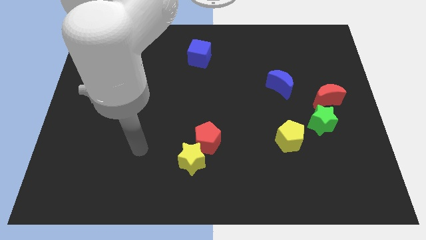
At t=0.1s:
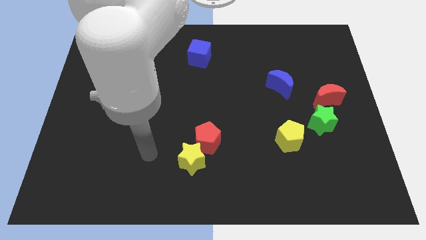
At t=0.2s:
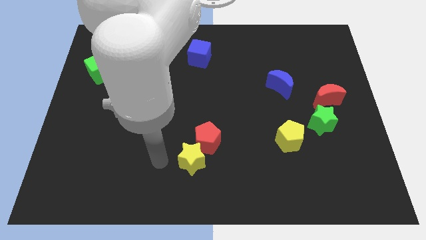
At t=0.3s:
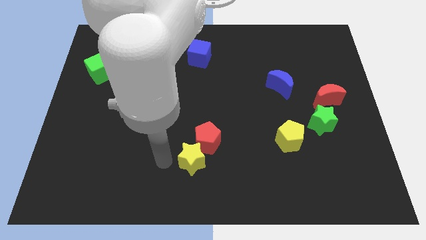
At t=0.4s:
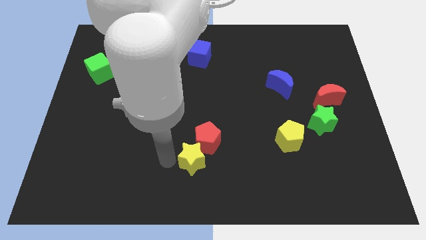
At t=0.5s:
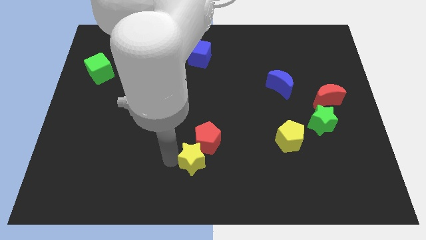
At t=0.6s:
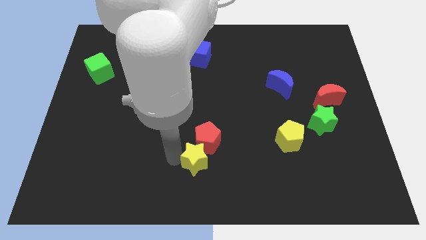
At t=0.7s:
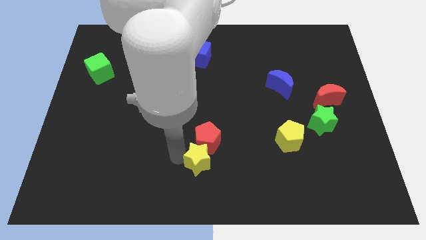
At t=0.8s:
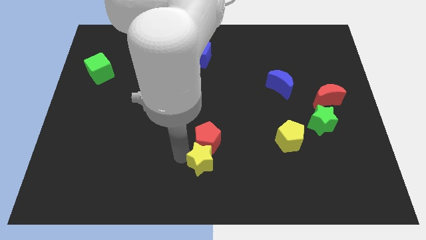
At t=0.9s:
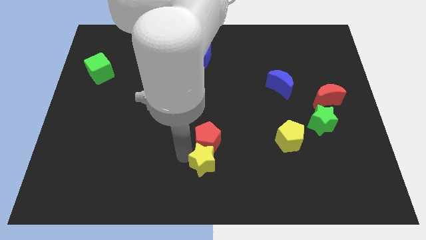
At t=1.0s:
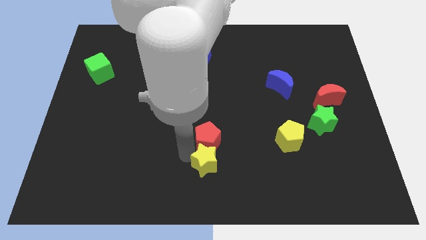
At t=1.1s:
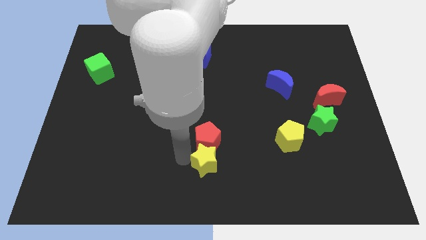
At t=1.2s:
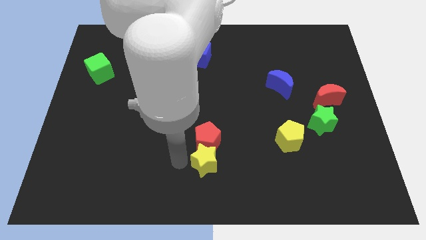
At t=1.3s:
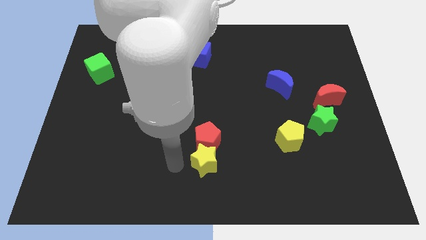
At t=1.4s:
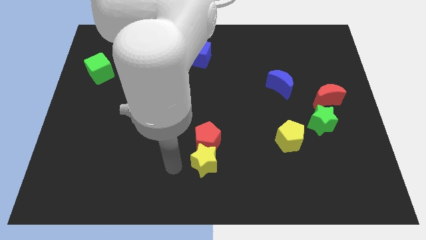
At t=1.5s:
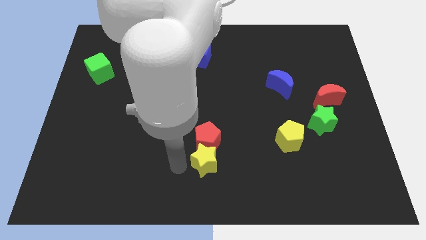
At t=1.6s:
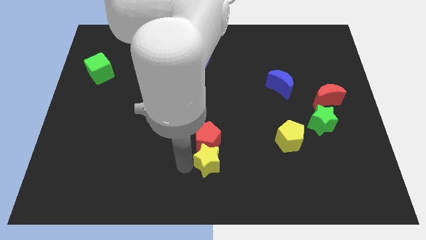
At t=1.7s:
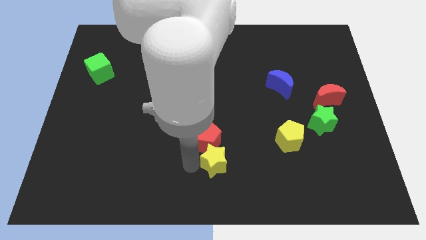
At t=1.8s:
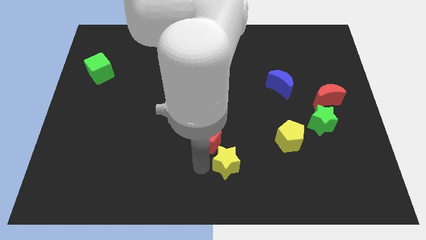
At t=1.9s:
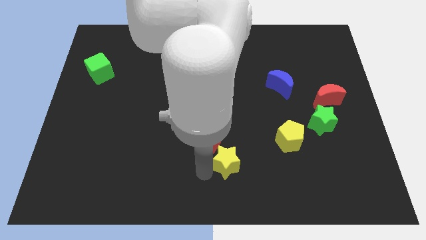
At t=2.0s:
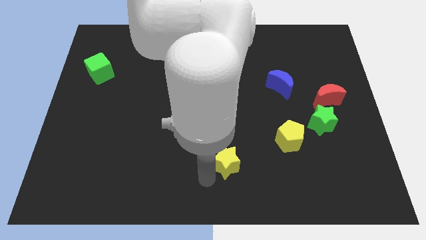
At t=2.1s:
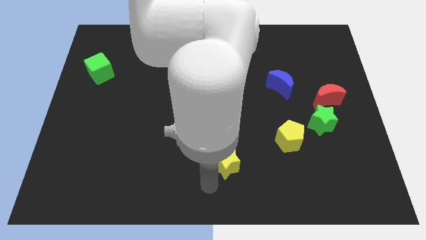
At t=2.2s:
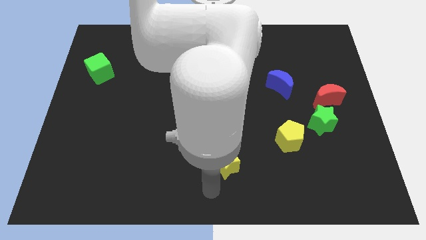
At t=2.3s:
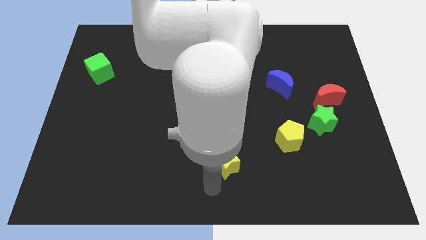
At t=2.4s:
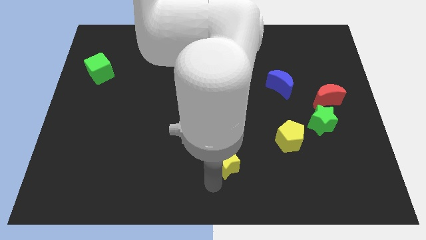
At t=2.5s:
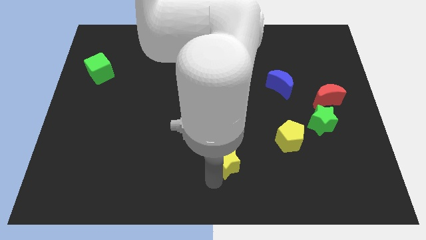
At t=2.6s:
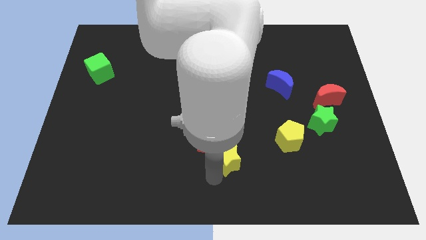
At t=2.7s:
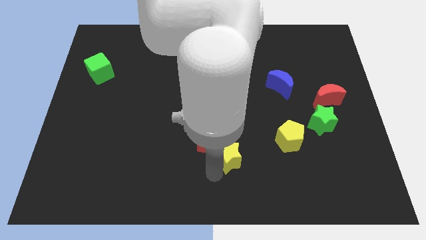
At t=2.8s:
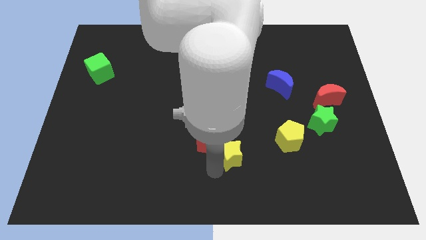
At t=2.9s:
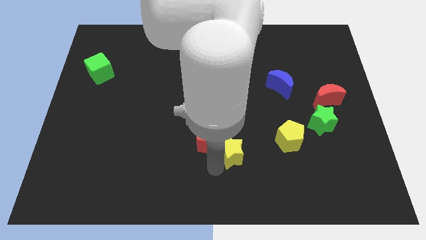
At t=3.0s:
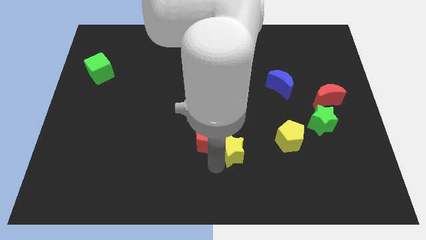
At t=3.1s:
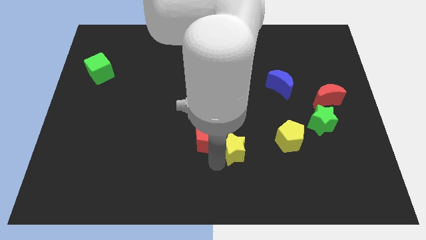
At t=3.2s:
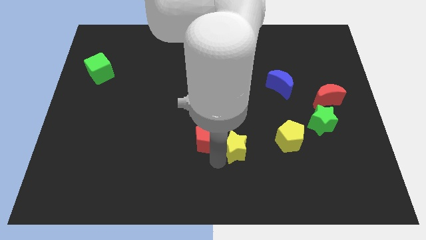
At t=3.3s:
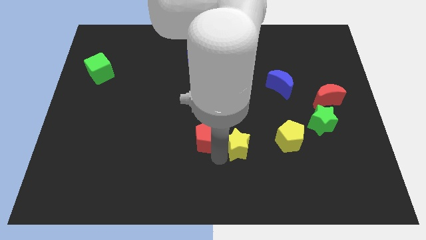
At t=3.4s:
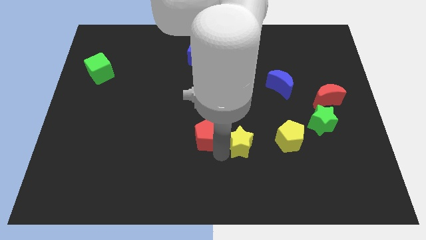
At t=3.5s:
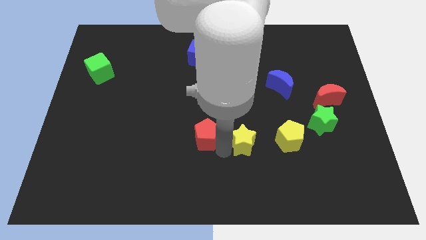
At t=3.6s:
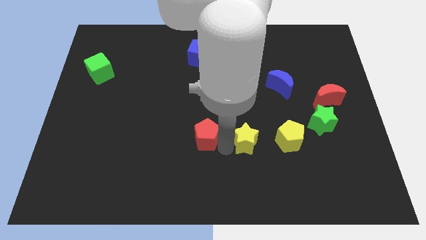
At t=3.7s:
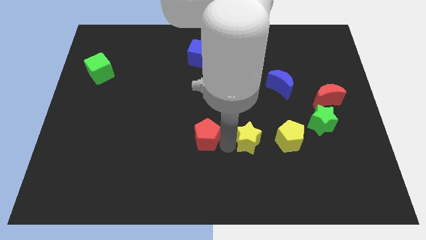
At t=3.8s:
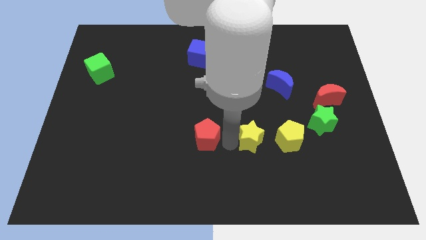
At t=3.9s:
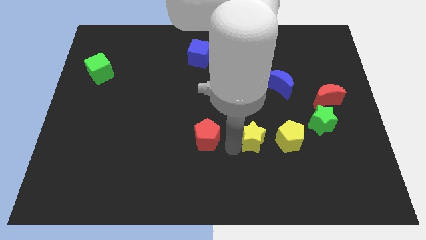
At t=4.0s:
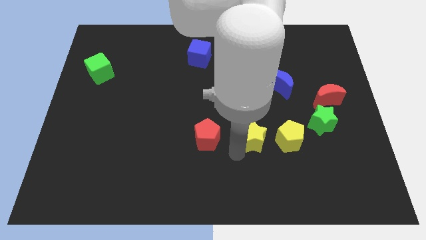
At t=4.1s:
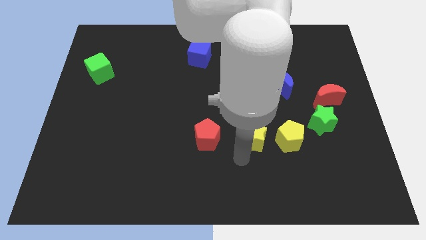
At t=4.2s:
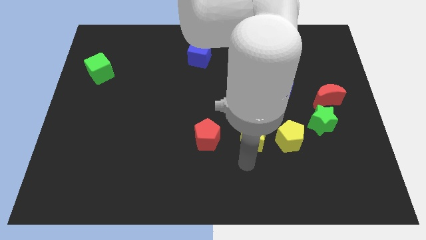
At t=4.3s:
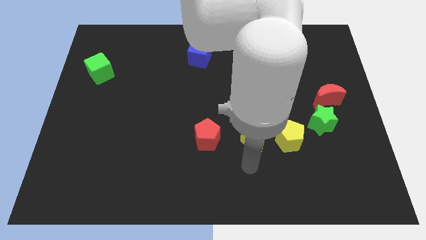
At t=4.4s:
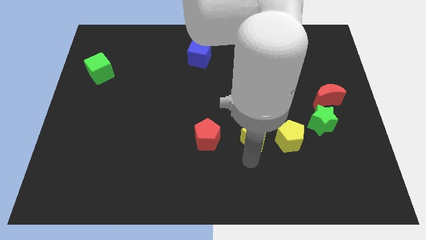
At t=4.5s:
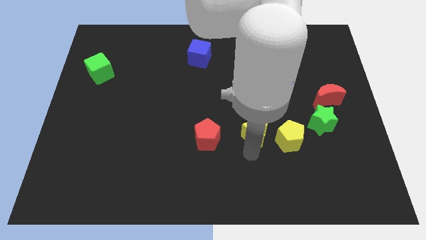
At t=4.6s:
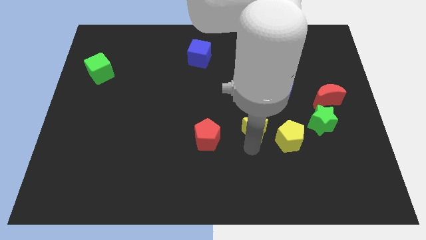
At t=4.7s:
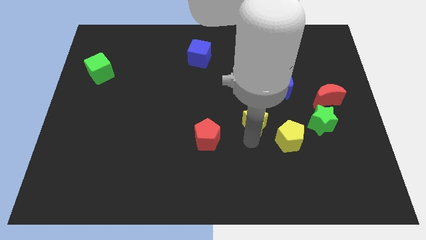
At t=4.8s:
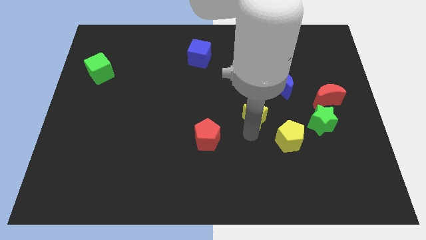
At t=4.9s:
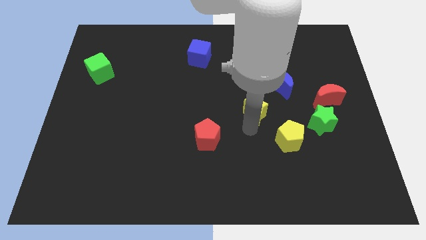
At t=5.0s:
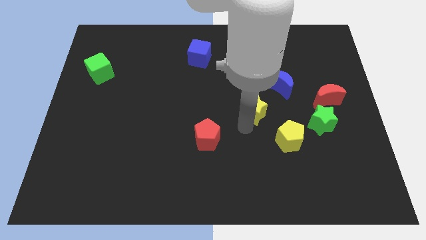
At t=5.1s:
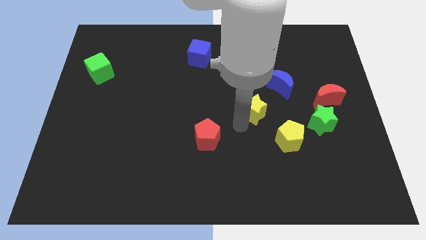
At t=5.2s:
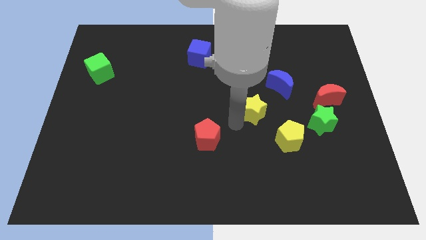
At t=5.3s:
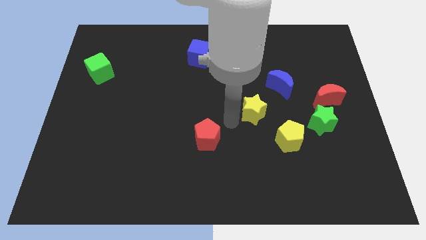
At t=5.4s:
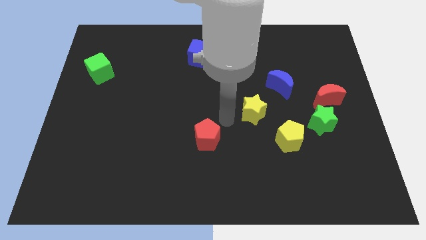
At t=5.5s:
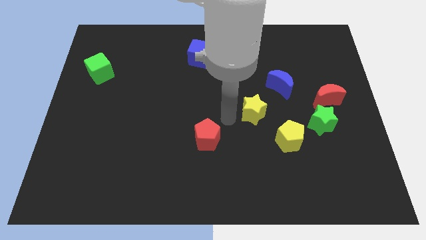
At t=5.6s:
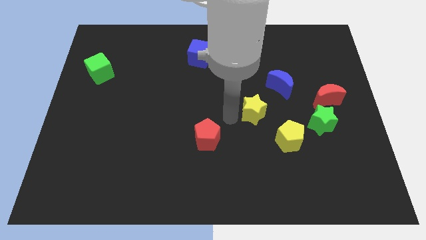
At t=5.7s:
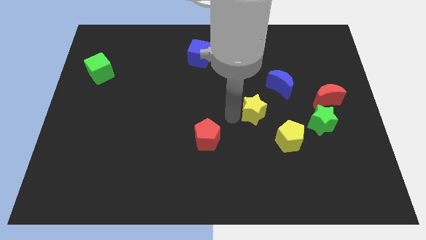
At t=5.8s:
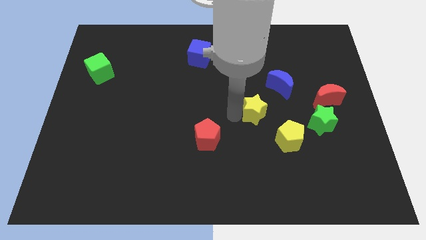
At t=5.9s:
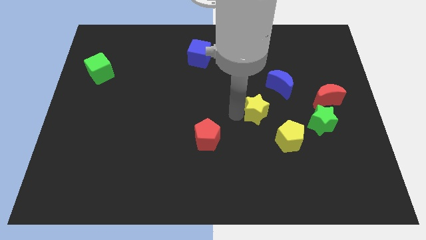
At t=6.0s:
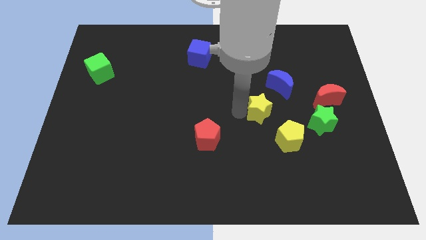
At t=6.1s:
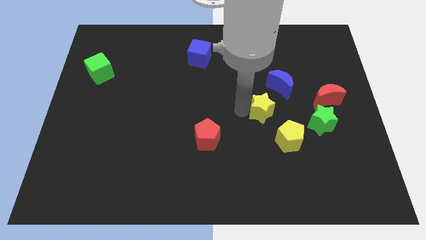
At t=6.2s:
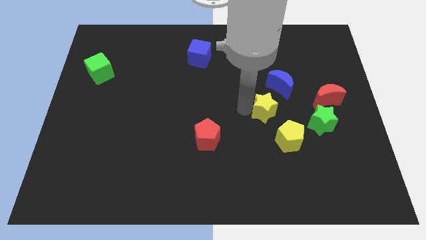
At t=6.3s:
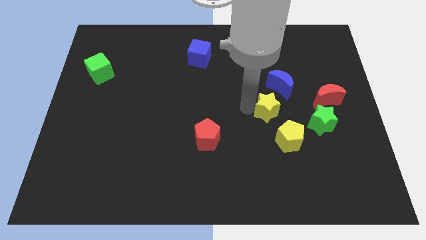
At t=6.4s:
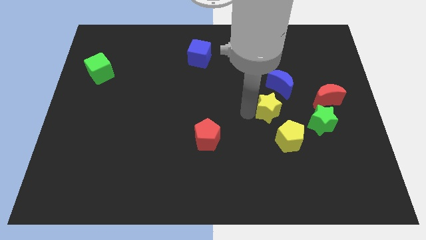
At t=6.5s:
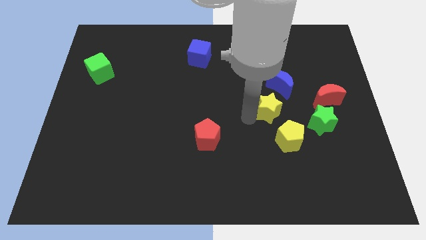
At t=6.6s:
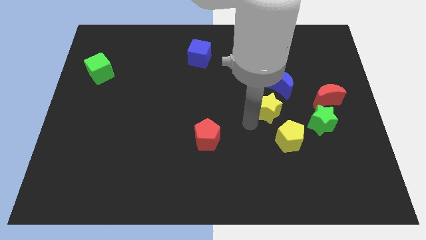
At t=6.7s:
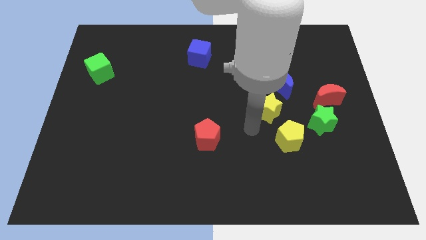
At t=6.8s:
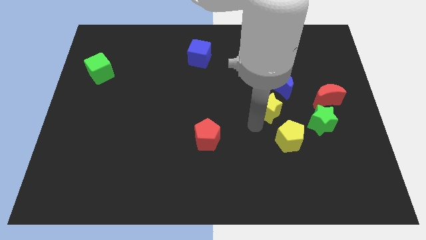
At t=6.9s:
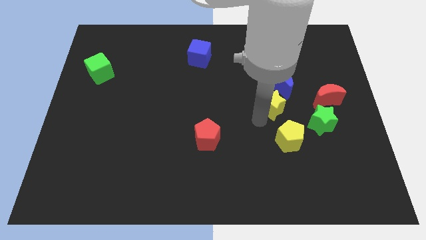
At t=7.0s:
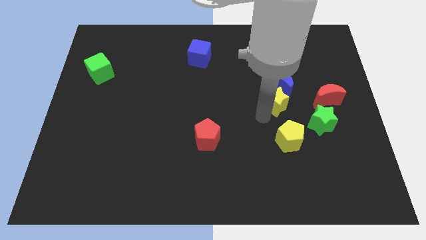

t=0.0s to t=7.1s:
move the yellow star next to the blue moon

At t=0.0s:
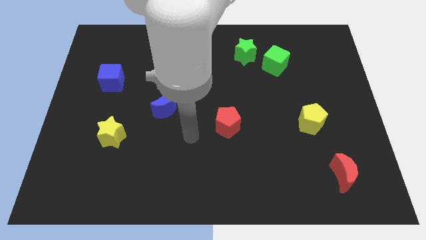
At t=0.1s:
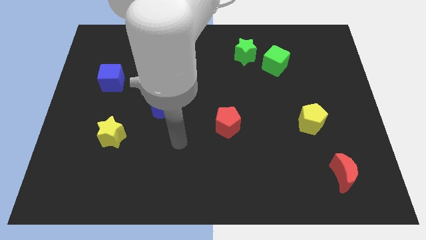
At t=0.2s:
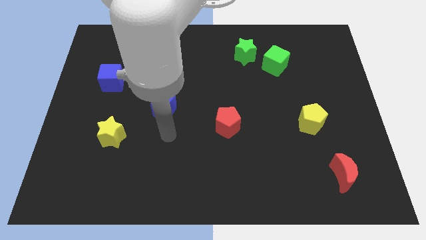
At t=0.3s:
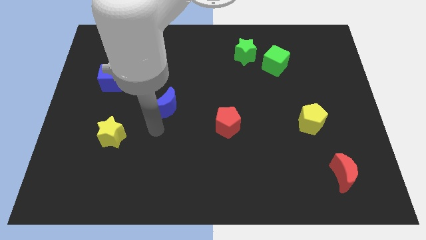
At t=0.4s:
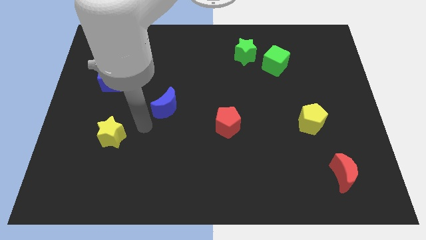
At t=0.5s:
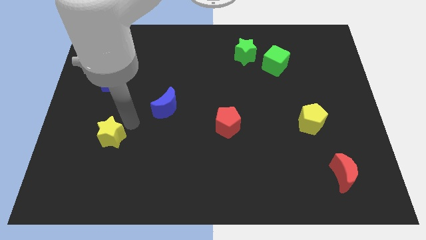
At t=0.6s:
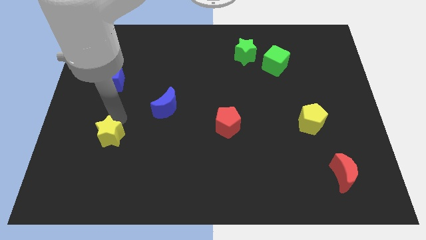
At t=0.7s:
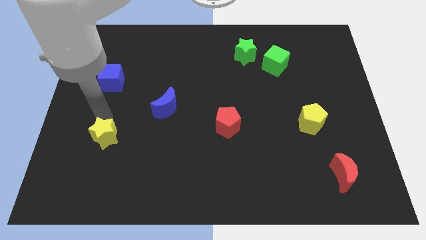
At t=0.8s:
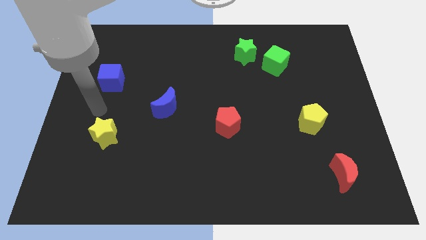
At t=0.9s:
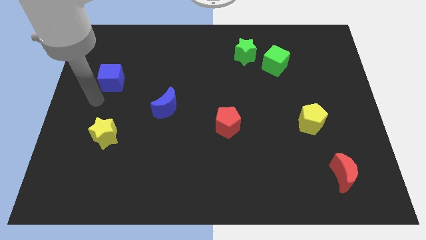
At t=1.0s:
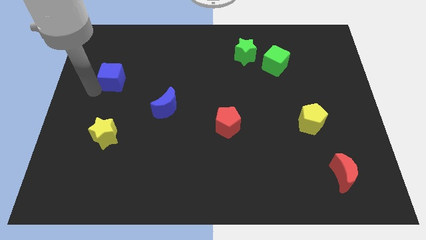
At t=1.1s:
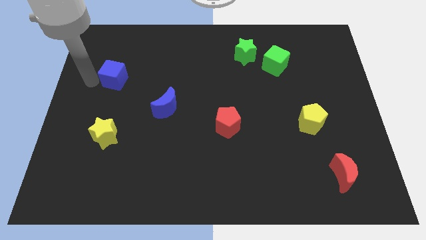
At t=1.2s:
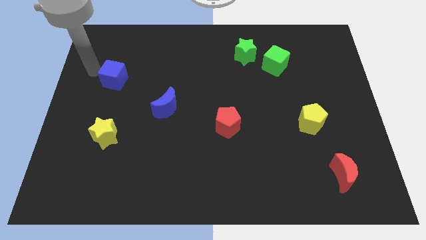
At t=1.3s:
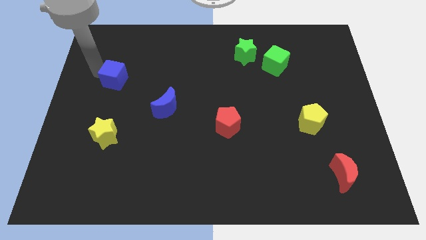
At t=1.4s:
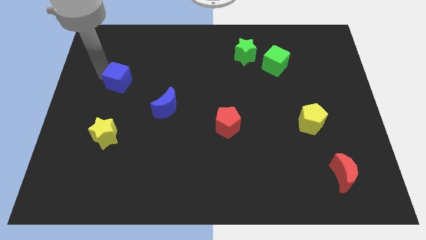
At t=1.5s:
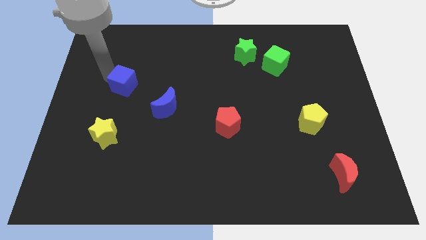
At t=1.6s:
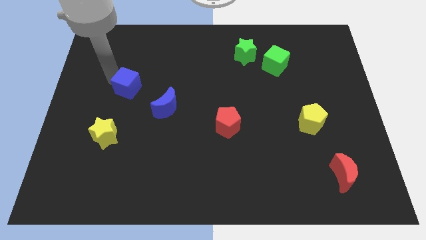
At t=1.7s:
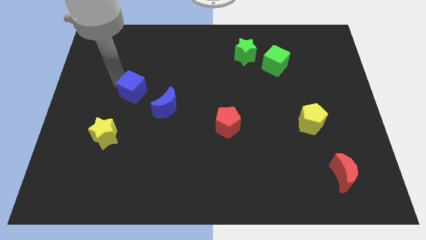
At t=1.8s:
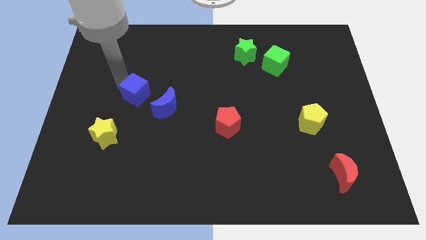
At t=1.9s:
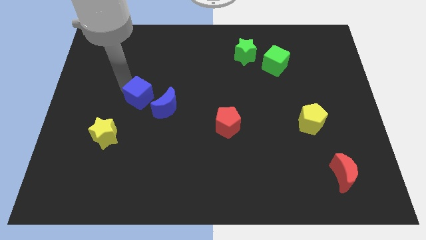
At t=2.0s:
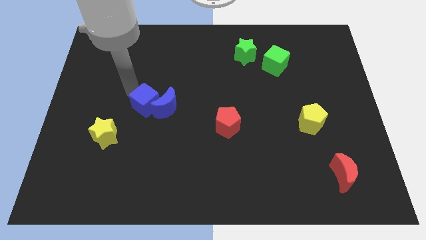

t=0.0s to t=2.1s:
slide the blue cube next to the blue moon
